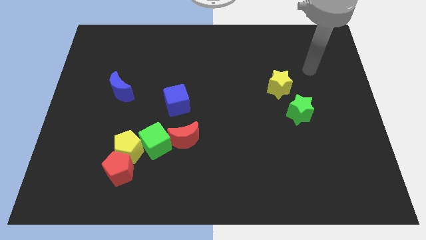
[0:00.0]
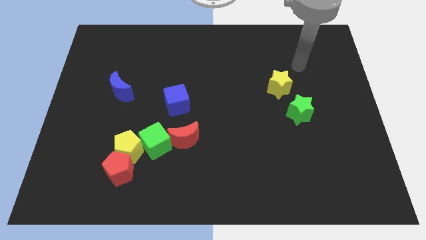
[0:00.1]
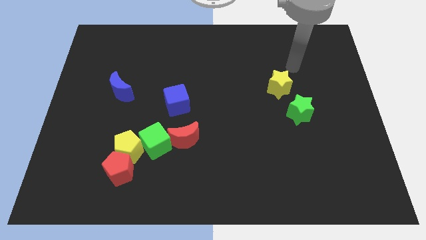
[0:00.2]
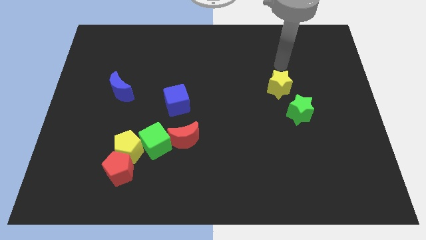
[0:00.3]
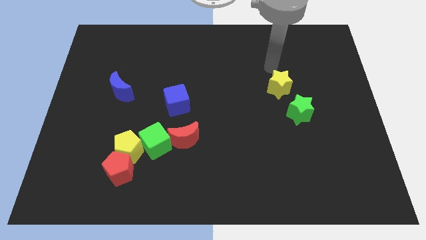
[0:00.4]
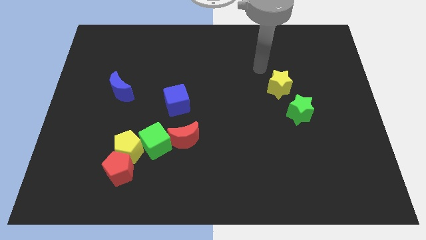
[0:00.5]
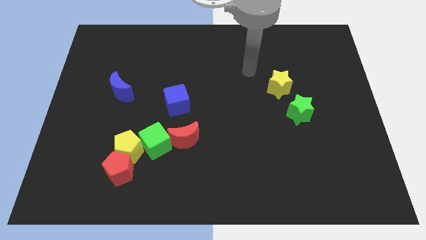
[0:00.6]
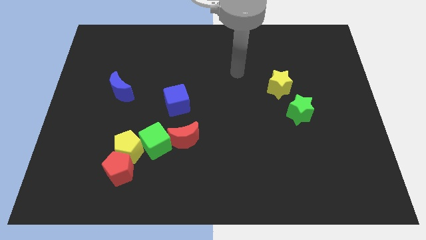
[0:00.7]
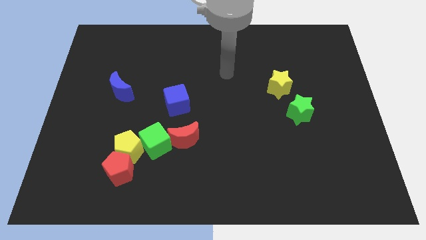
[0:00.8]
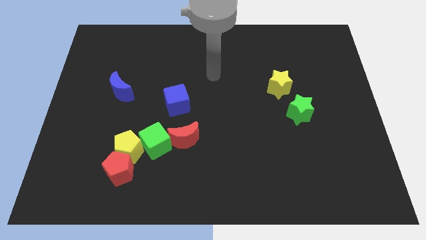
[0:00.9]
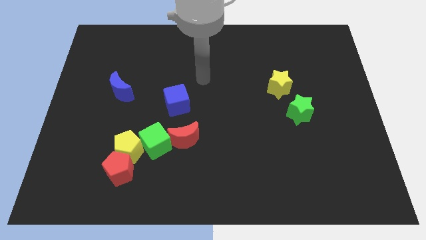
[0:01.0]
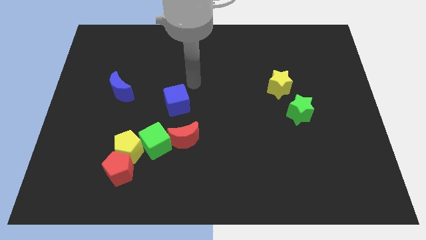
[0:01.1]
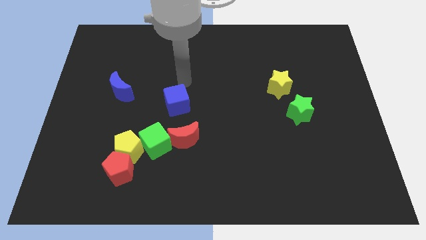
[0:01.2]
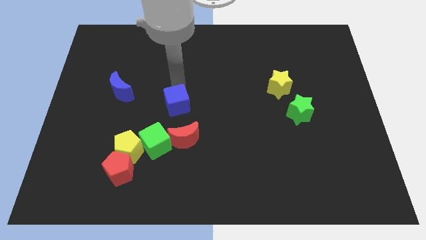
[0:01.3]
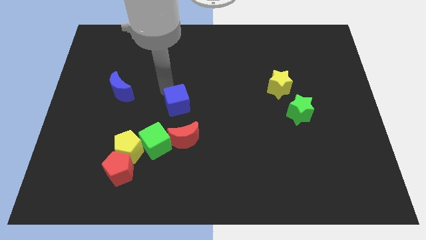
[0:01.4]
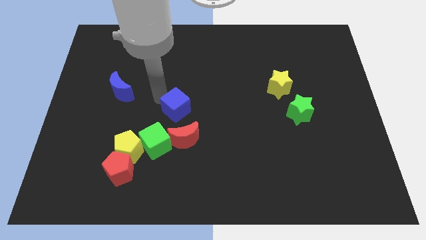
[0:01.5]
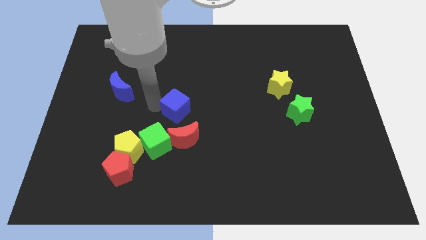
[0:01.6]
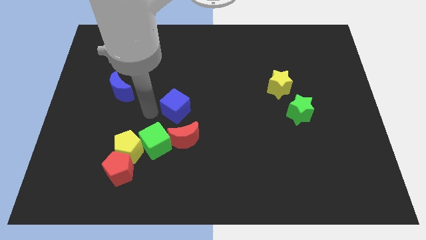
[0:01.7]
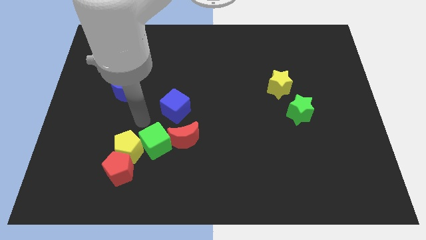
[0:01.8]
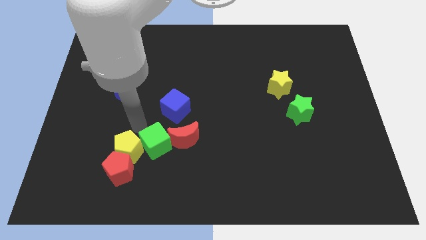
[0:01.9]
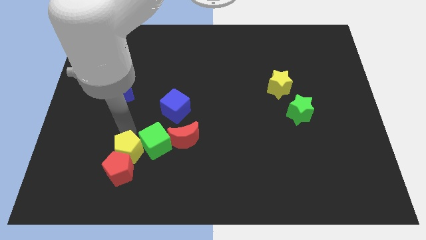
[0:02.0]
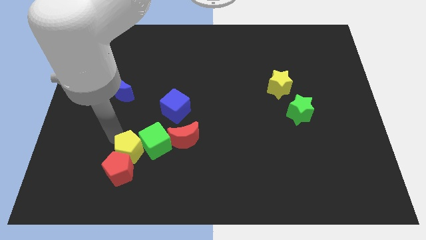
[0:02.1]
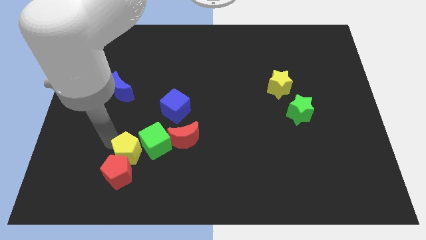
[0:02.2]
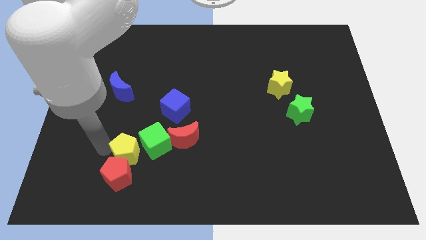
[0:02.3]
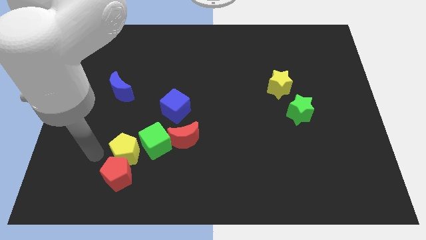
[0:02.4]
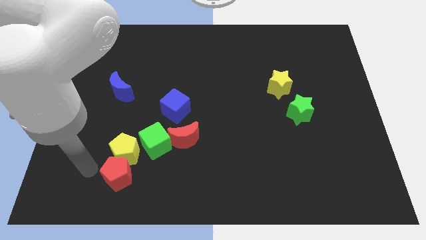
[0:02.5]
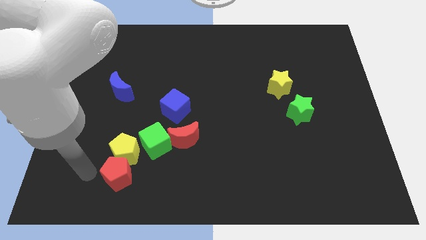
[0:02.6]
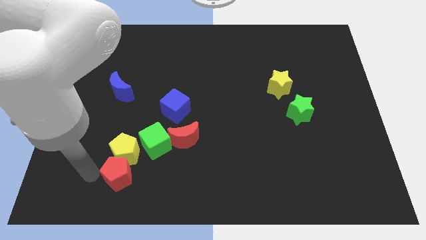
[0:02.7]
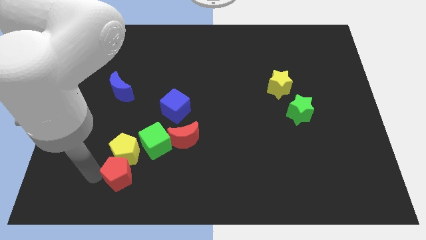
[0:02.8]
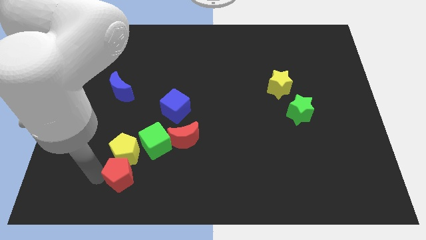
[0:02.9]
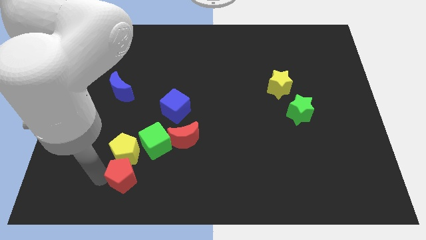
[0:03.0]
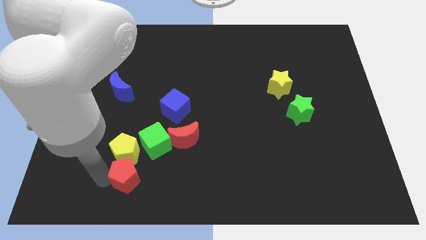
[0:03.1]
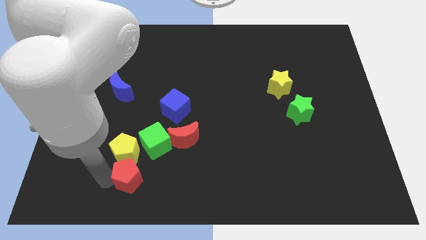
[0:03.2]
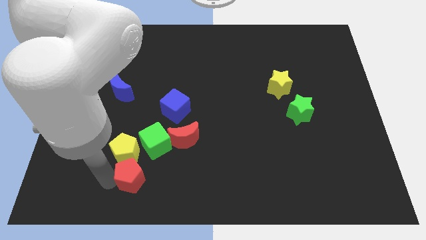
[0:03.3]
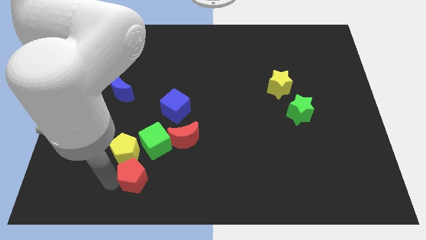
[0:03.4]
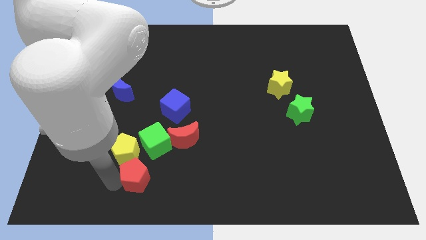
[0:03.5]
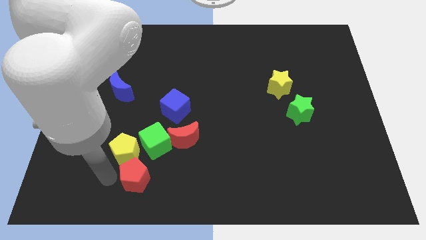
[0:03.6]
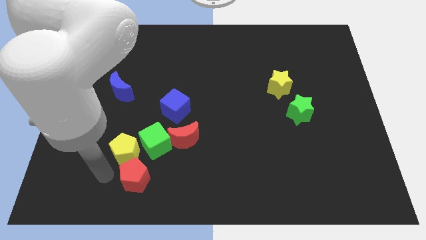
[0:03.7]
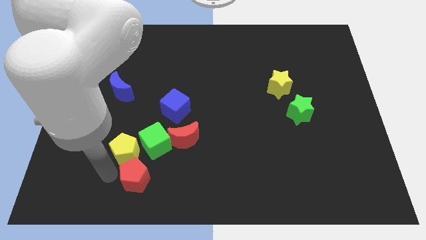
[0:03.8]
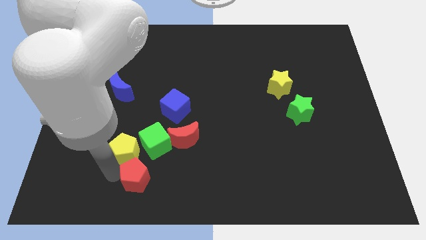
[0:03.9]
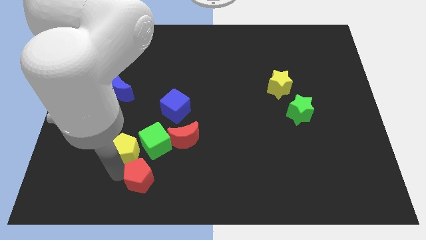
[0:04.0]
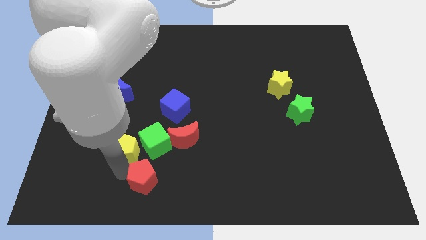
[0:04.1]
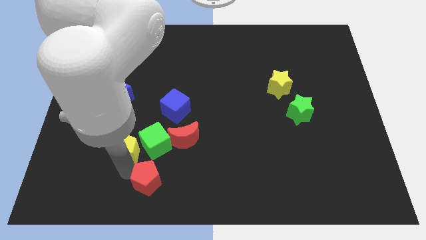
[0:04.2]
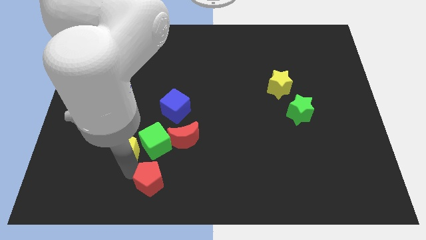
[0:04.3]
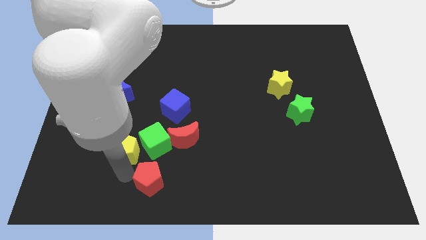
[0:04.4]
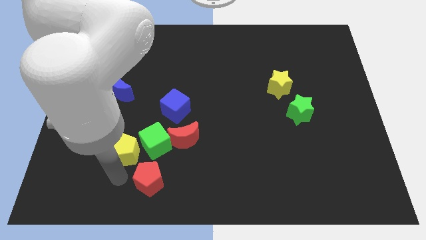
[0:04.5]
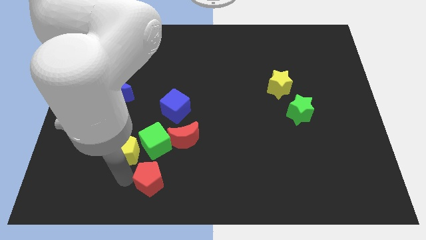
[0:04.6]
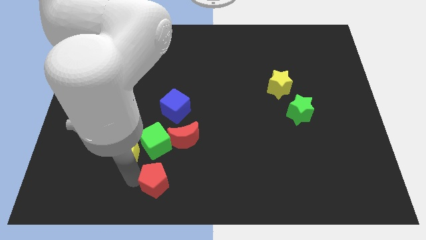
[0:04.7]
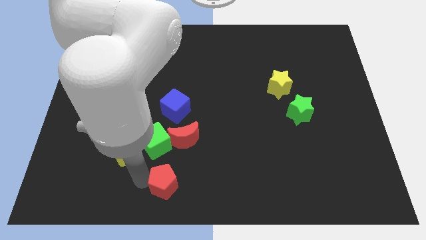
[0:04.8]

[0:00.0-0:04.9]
move the red pentagon to the bottom side of the red moon

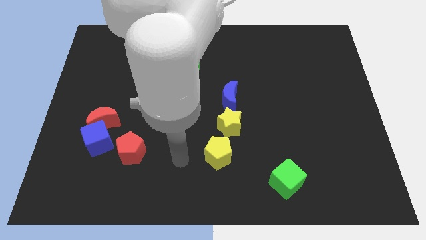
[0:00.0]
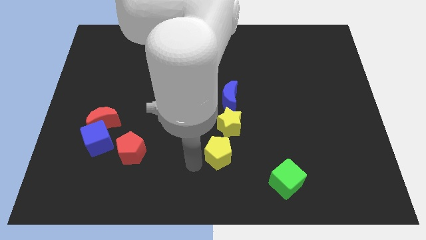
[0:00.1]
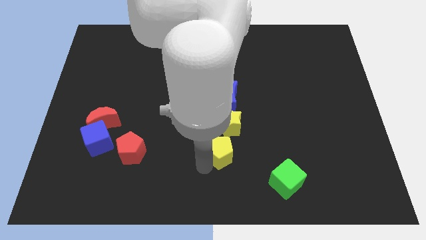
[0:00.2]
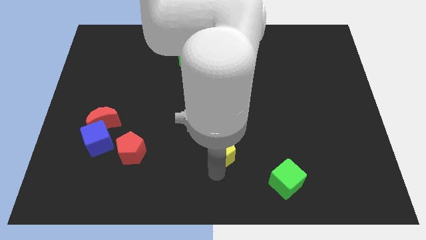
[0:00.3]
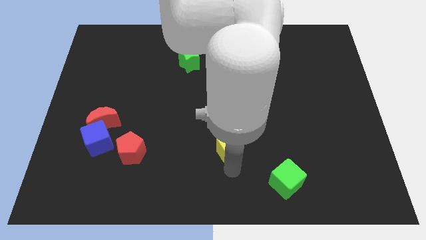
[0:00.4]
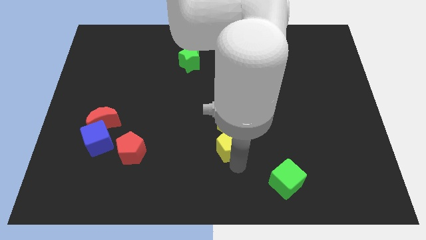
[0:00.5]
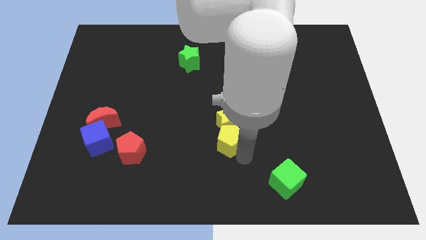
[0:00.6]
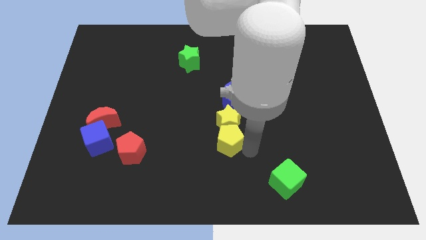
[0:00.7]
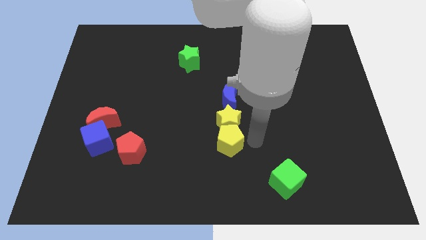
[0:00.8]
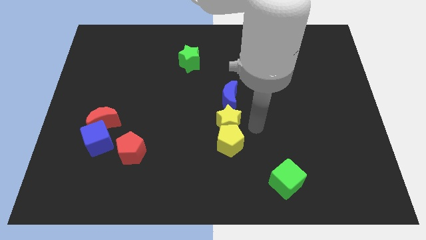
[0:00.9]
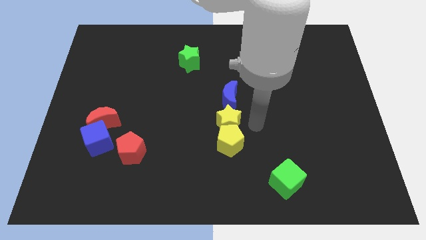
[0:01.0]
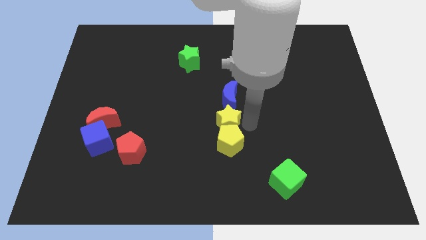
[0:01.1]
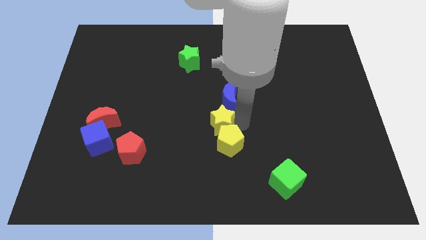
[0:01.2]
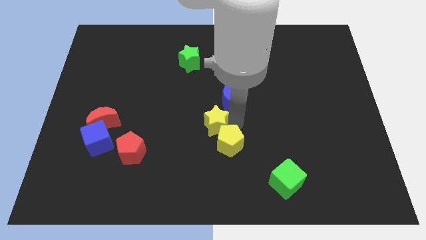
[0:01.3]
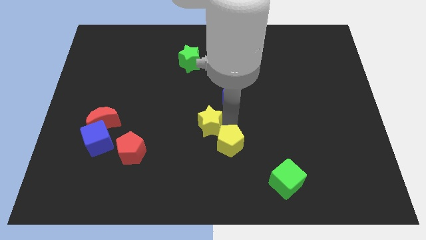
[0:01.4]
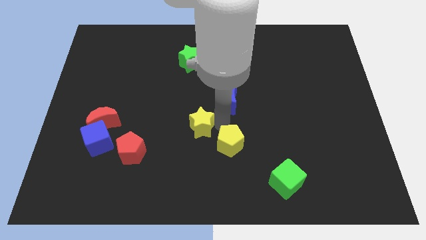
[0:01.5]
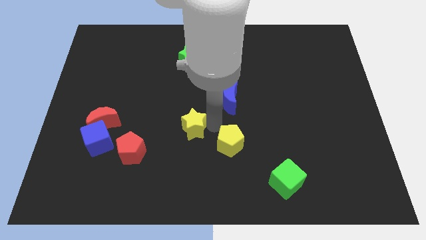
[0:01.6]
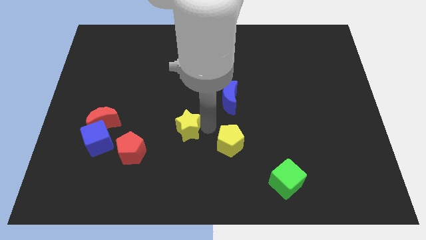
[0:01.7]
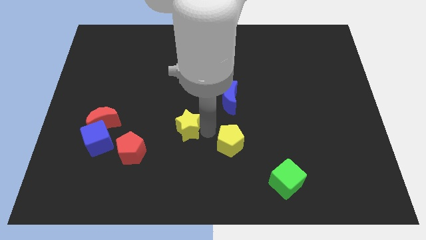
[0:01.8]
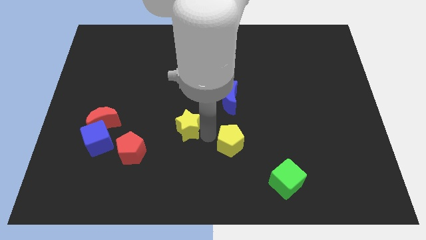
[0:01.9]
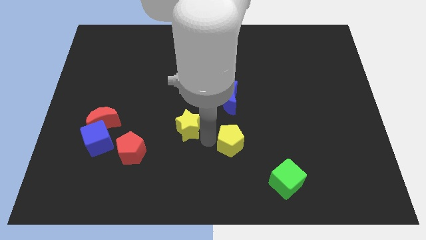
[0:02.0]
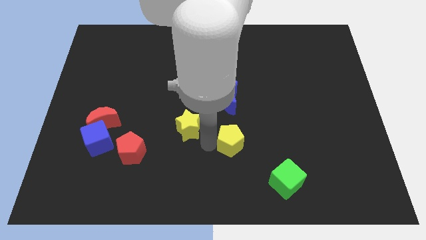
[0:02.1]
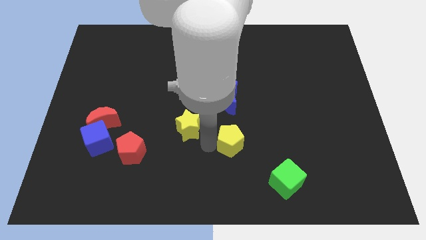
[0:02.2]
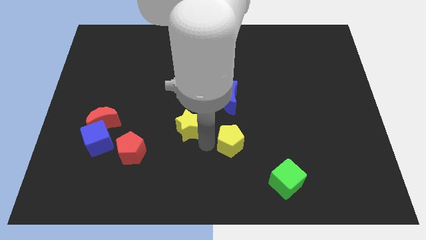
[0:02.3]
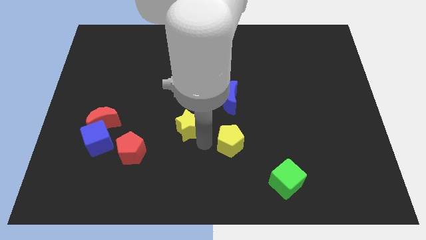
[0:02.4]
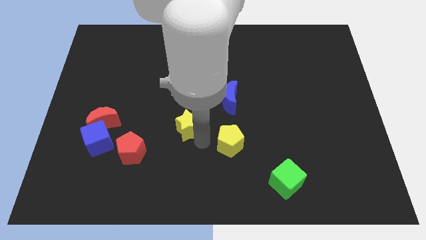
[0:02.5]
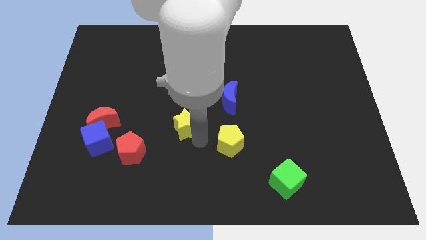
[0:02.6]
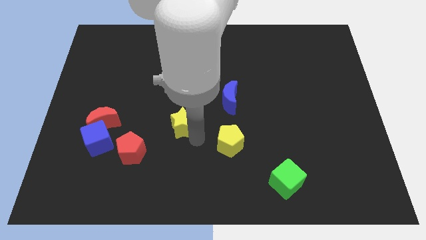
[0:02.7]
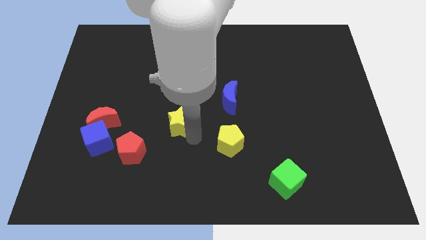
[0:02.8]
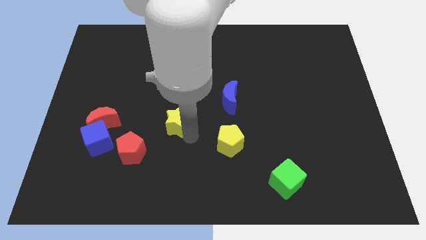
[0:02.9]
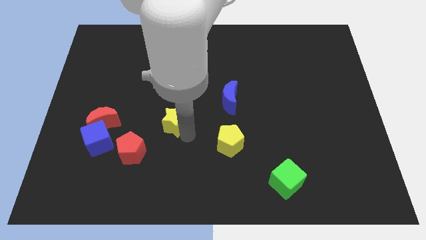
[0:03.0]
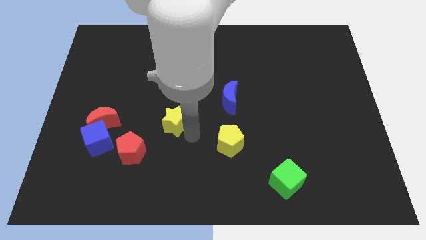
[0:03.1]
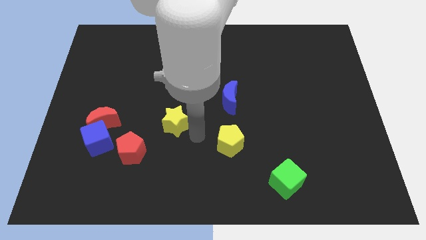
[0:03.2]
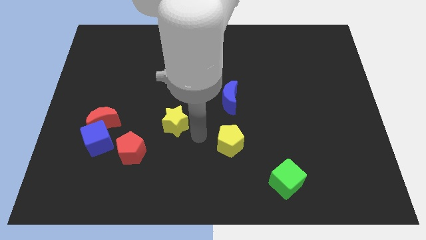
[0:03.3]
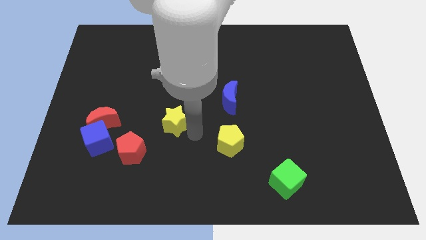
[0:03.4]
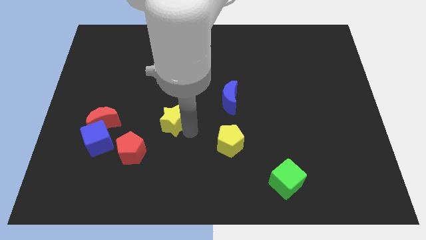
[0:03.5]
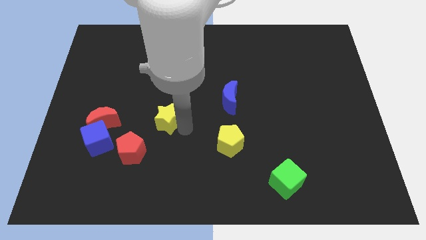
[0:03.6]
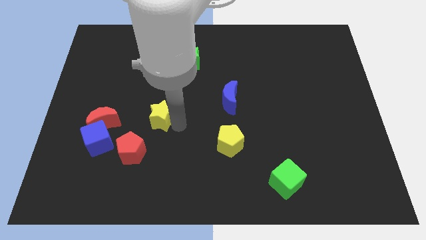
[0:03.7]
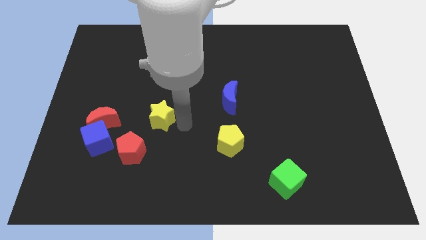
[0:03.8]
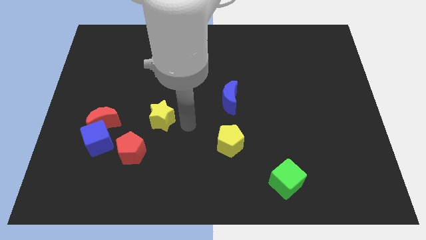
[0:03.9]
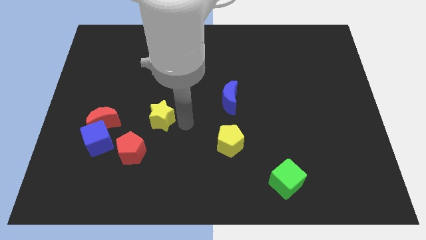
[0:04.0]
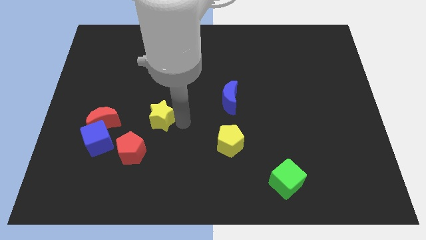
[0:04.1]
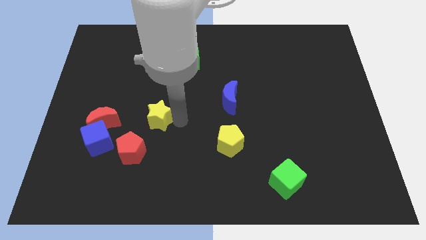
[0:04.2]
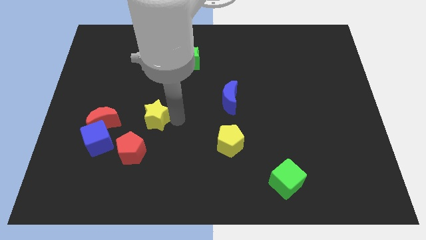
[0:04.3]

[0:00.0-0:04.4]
slide the yellow star above the red pentagon
